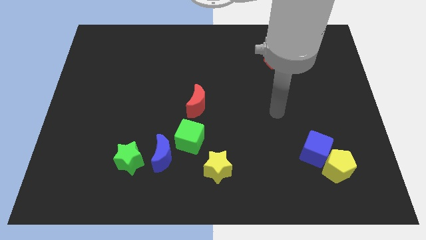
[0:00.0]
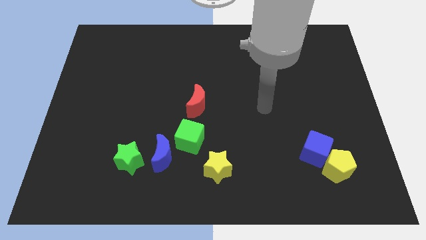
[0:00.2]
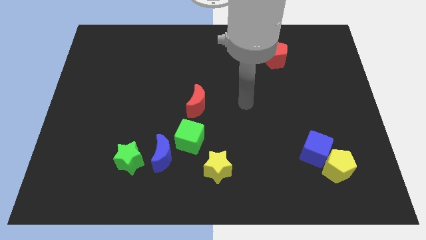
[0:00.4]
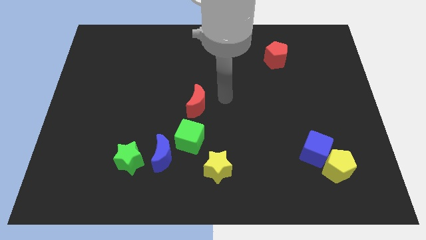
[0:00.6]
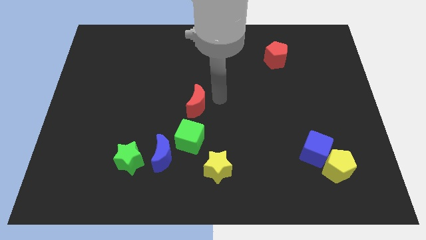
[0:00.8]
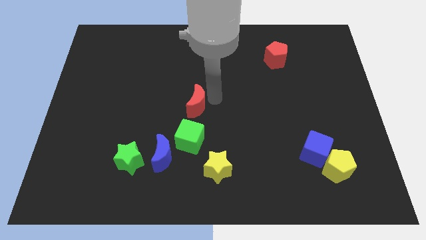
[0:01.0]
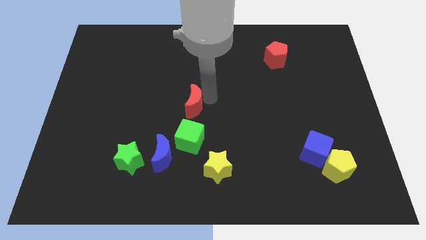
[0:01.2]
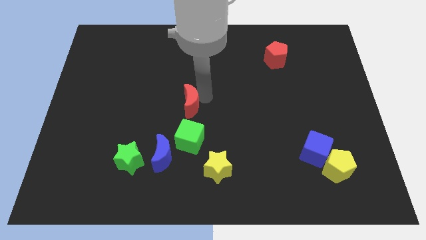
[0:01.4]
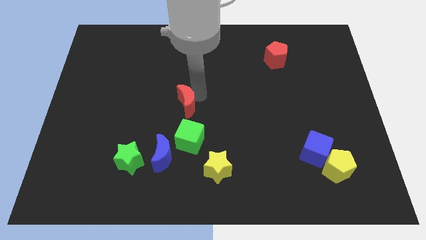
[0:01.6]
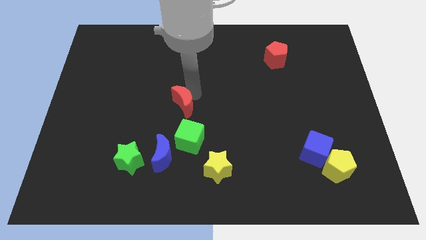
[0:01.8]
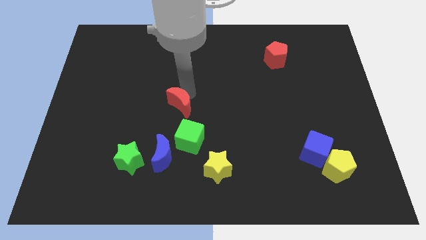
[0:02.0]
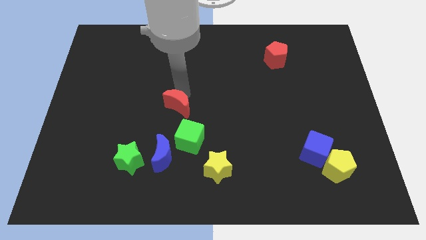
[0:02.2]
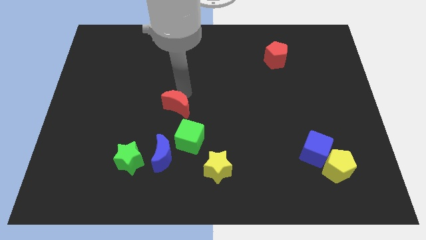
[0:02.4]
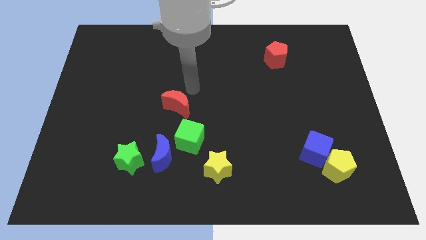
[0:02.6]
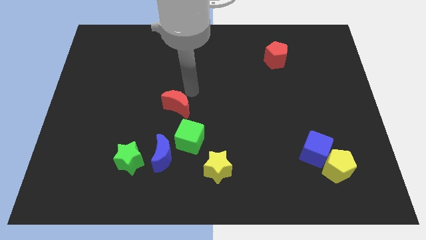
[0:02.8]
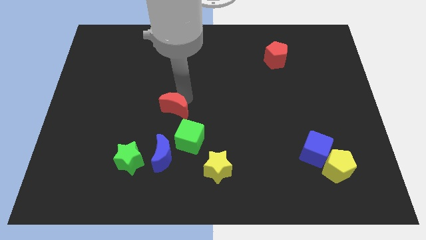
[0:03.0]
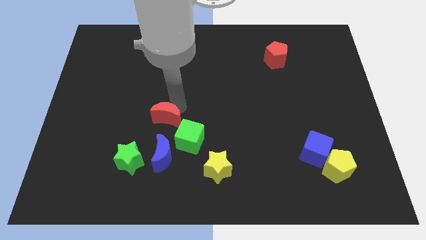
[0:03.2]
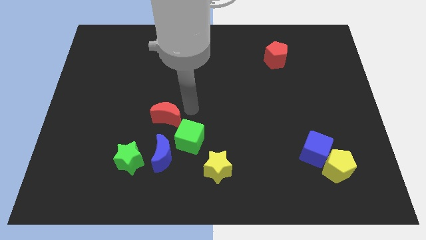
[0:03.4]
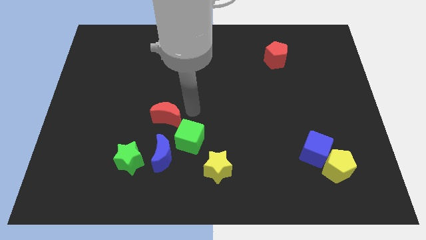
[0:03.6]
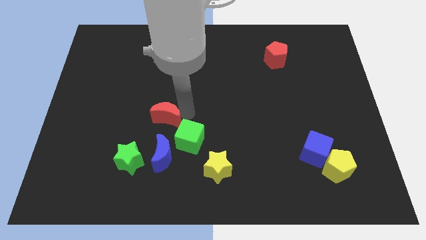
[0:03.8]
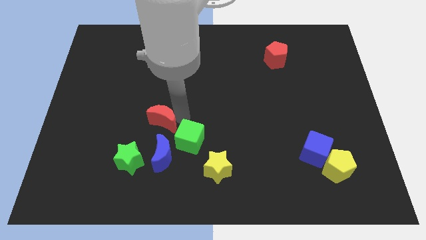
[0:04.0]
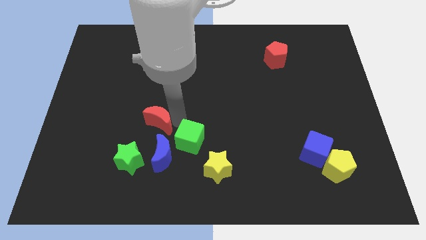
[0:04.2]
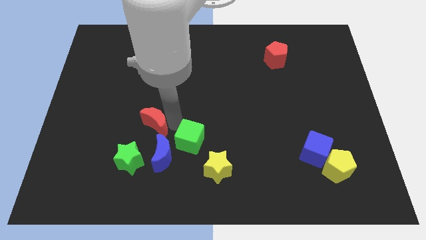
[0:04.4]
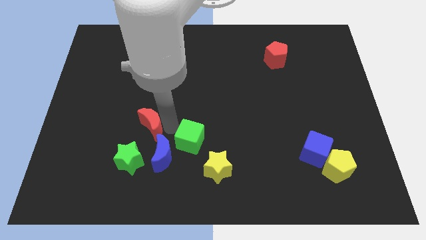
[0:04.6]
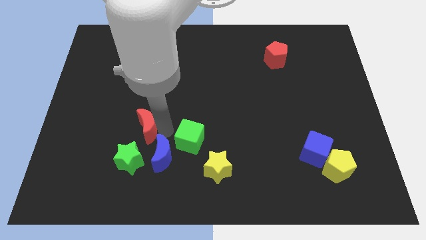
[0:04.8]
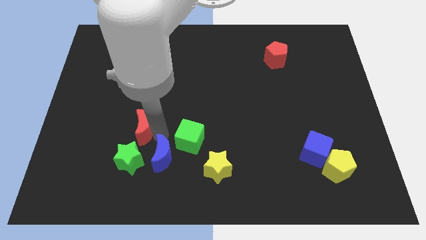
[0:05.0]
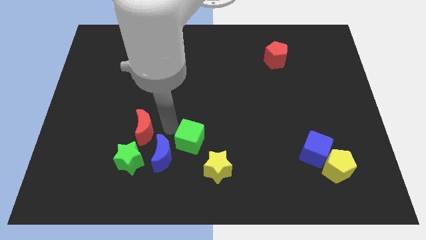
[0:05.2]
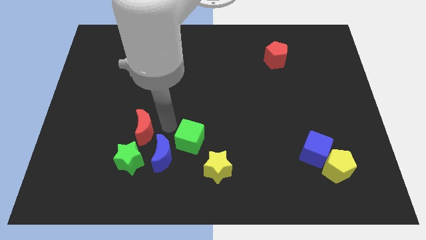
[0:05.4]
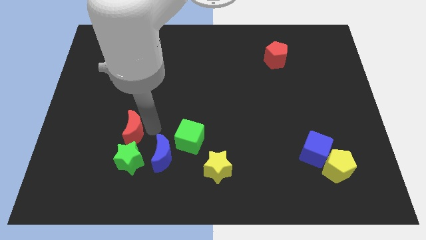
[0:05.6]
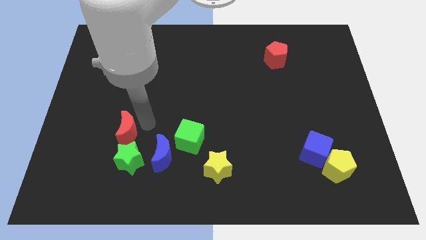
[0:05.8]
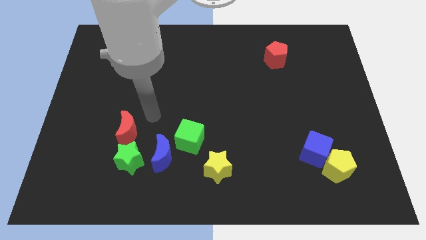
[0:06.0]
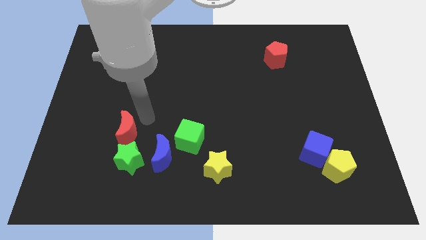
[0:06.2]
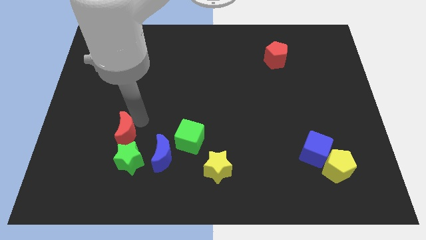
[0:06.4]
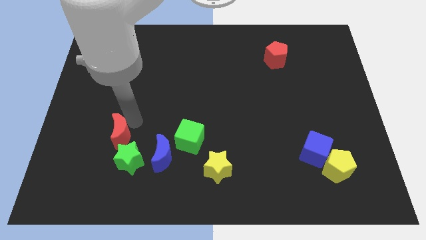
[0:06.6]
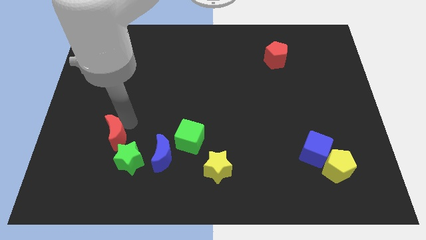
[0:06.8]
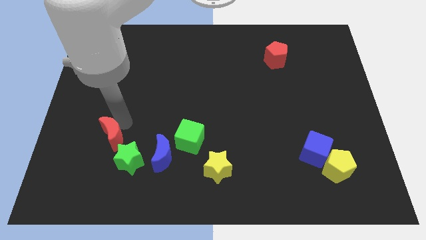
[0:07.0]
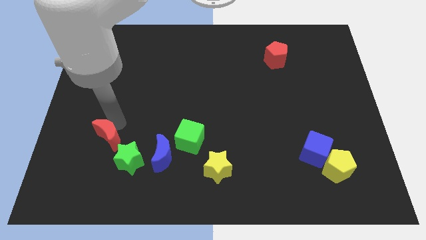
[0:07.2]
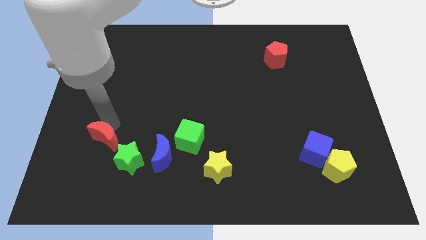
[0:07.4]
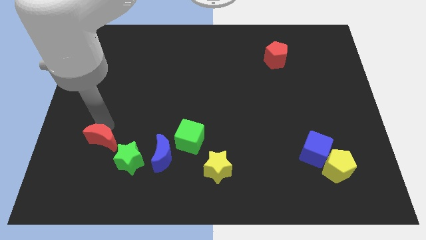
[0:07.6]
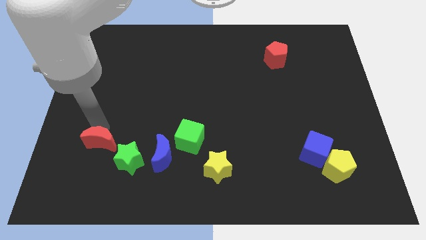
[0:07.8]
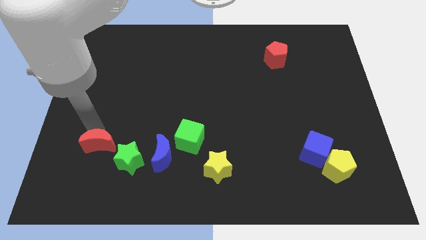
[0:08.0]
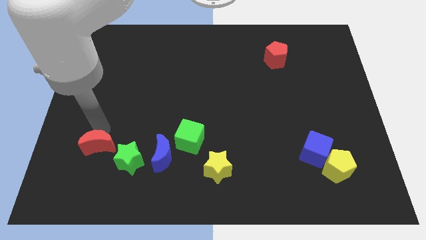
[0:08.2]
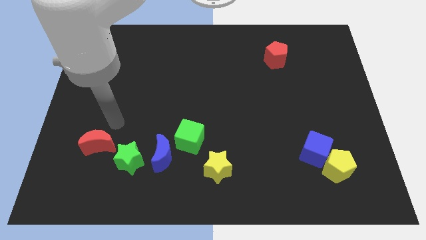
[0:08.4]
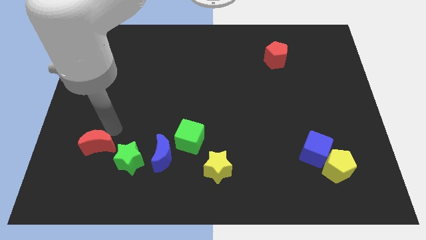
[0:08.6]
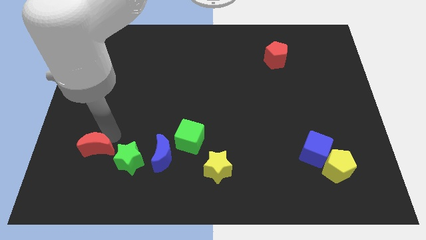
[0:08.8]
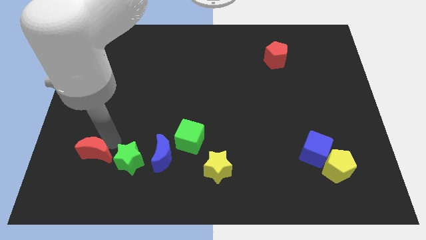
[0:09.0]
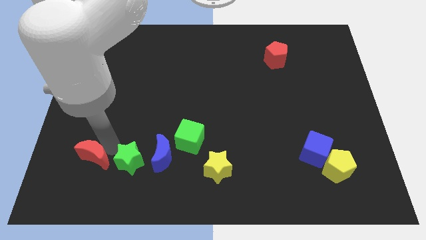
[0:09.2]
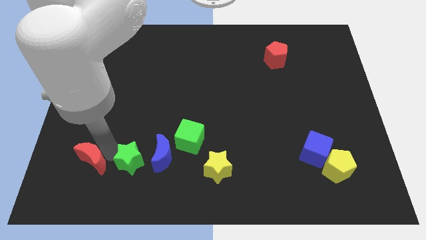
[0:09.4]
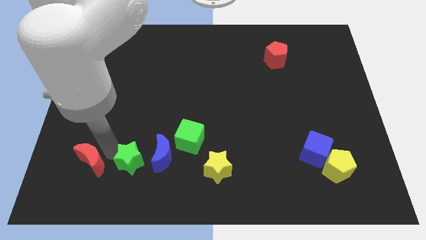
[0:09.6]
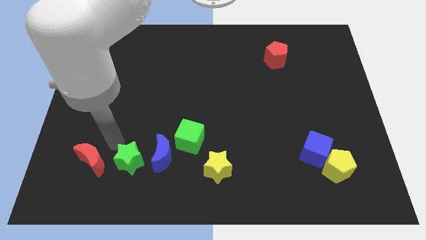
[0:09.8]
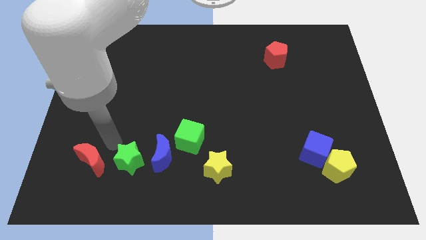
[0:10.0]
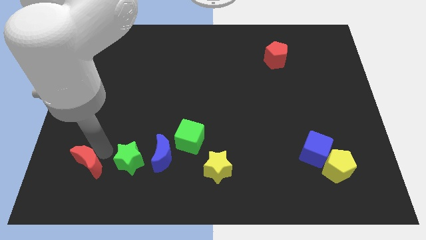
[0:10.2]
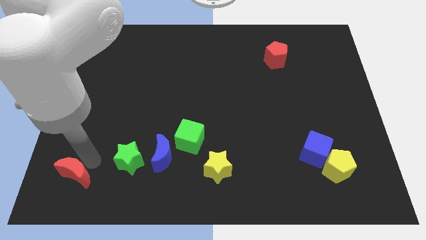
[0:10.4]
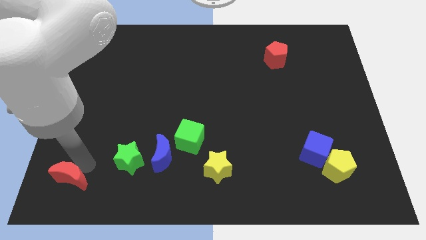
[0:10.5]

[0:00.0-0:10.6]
slide the red moon to the bottom left corner

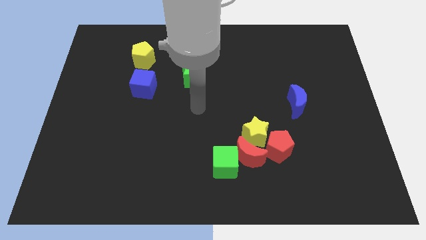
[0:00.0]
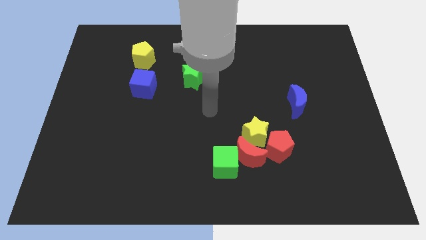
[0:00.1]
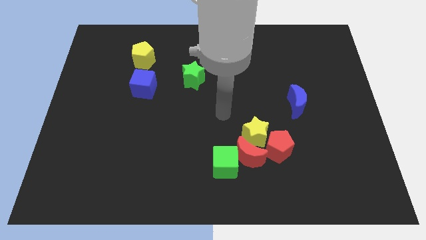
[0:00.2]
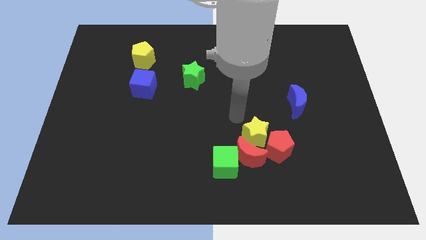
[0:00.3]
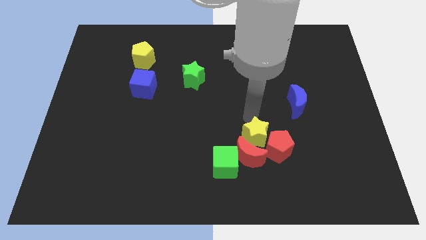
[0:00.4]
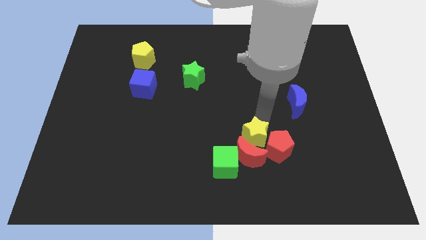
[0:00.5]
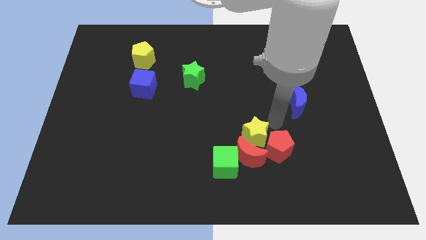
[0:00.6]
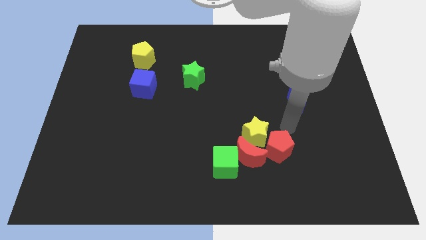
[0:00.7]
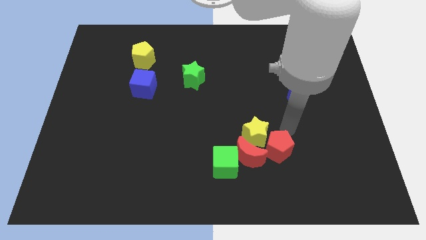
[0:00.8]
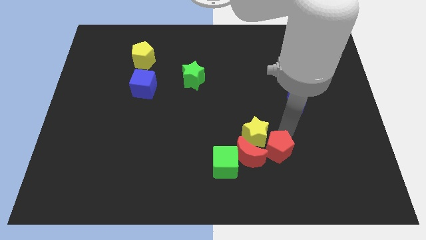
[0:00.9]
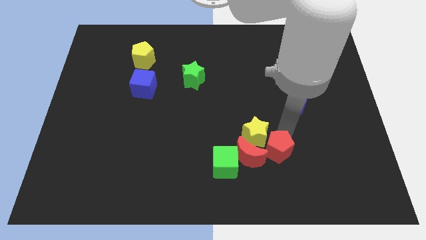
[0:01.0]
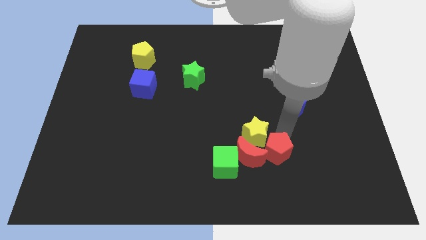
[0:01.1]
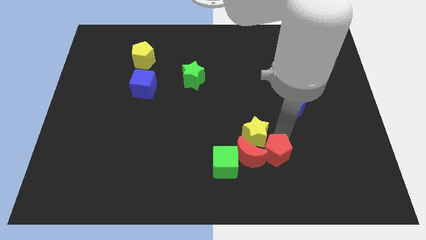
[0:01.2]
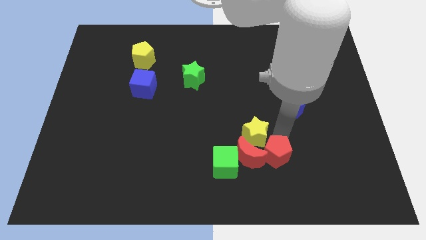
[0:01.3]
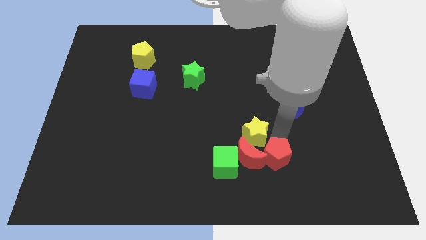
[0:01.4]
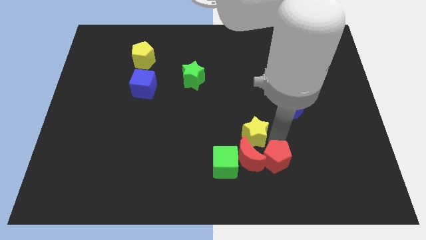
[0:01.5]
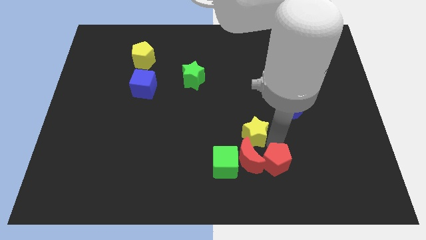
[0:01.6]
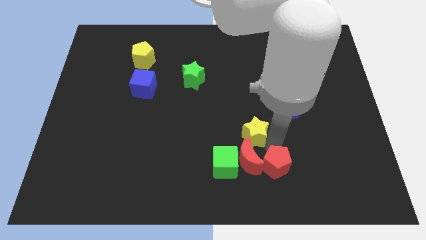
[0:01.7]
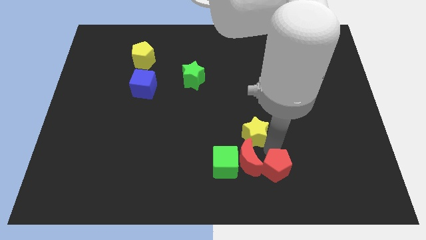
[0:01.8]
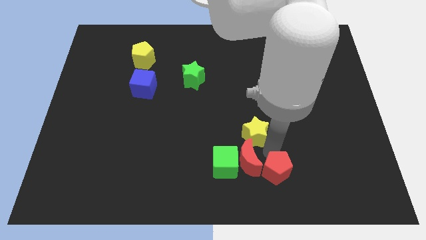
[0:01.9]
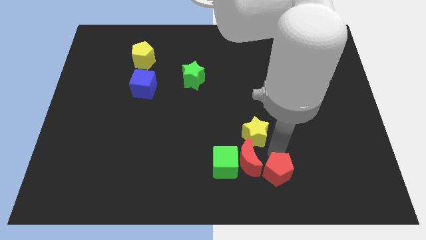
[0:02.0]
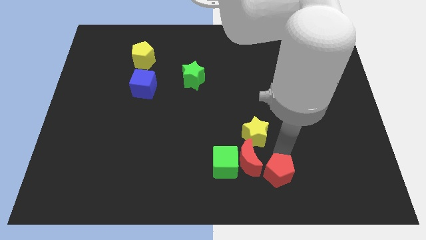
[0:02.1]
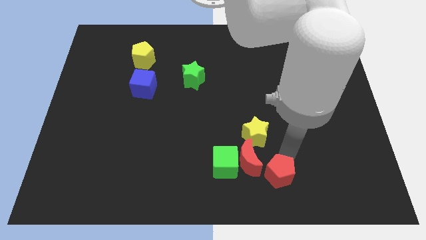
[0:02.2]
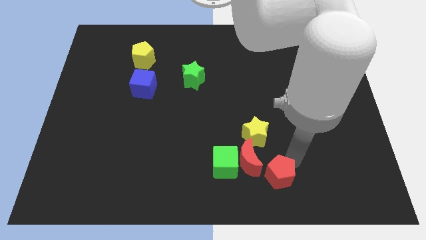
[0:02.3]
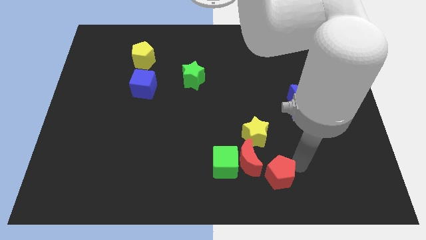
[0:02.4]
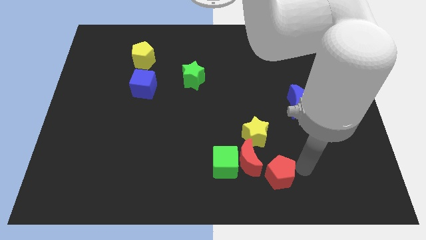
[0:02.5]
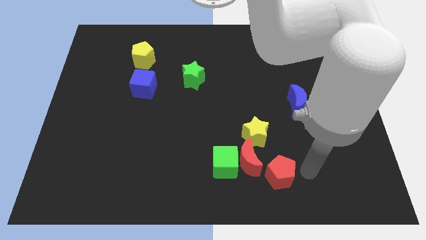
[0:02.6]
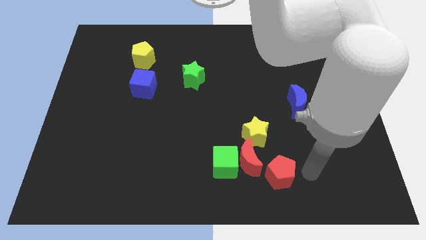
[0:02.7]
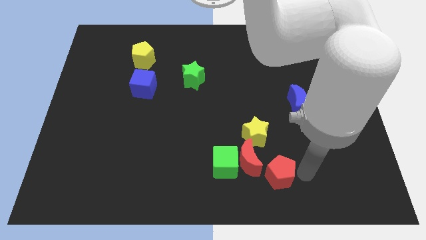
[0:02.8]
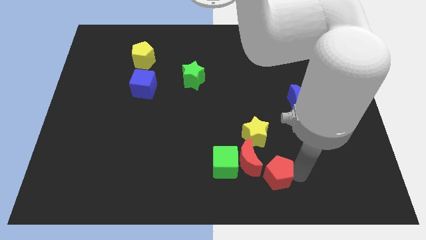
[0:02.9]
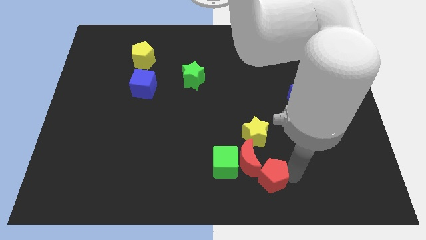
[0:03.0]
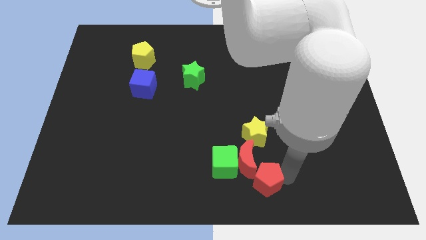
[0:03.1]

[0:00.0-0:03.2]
slide the red pentagon to the bottom
